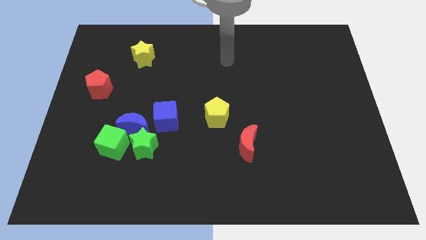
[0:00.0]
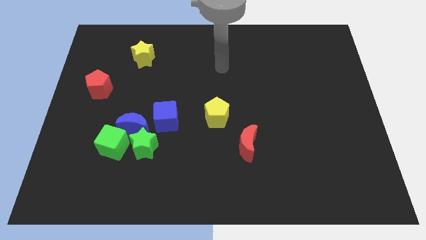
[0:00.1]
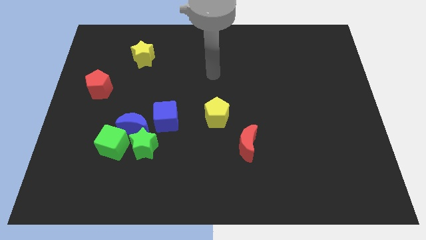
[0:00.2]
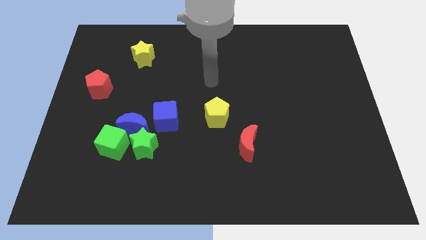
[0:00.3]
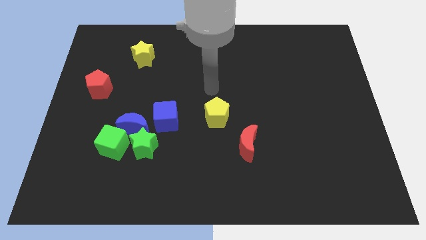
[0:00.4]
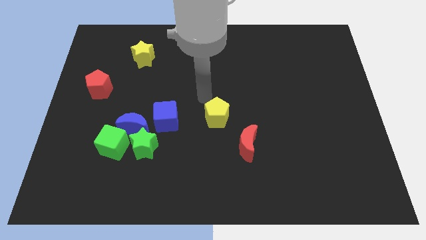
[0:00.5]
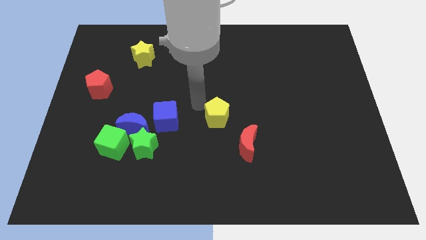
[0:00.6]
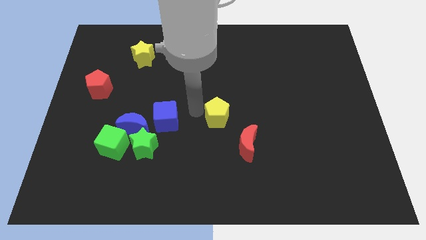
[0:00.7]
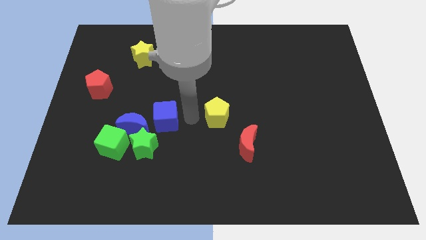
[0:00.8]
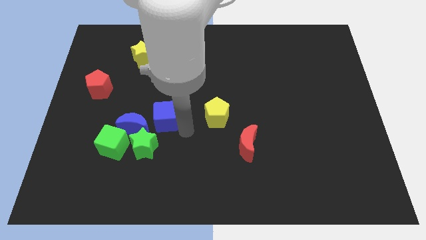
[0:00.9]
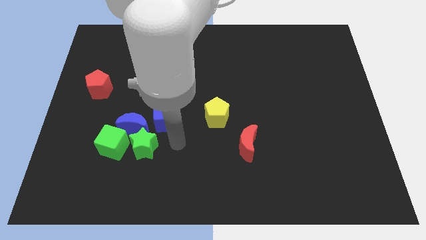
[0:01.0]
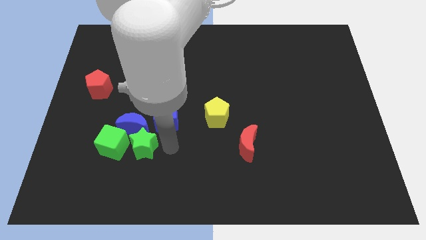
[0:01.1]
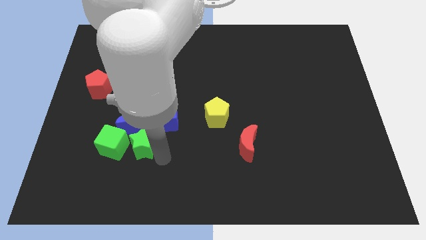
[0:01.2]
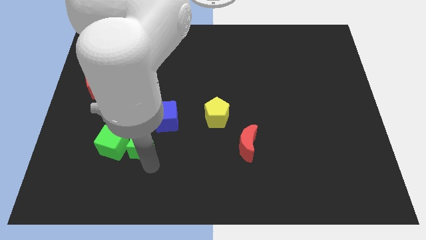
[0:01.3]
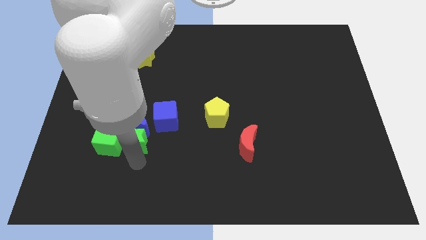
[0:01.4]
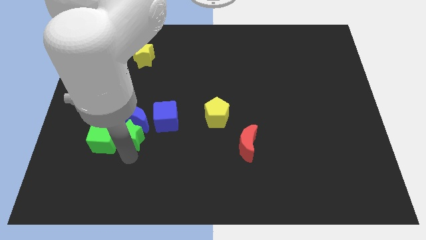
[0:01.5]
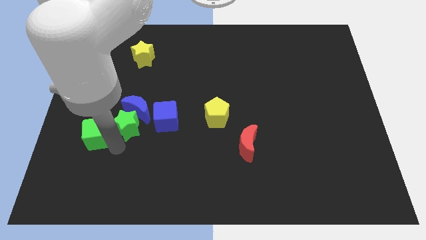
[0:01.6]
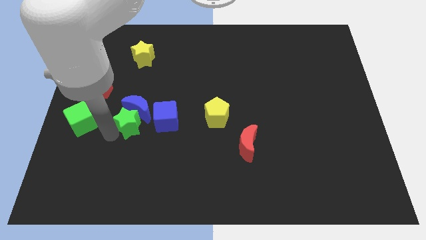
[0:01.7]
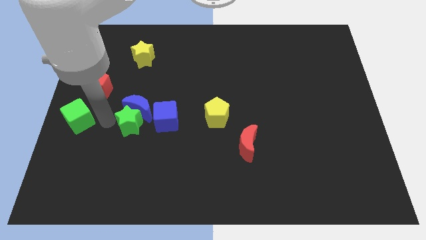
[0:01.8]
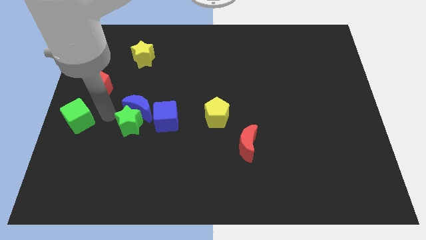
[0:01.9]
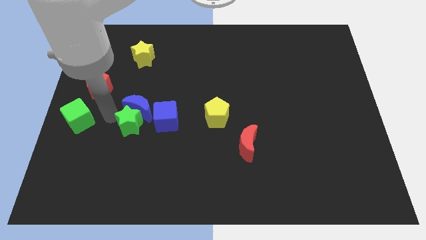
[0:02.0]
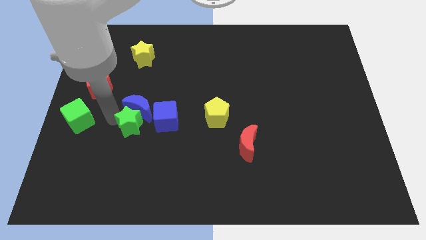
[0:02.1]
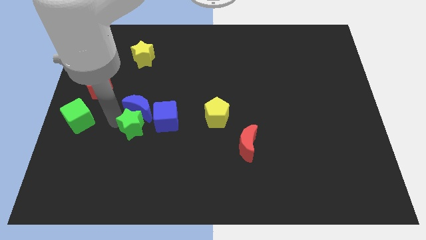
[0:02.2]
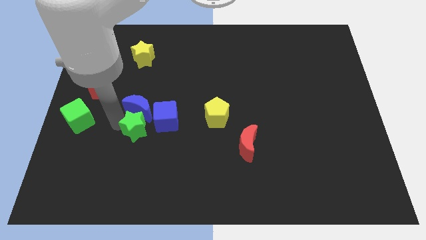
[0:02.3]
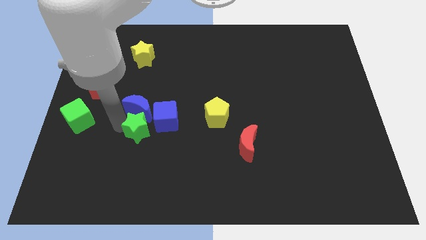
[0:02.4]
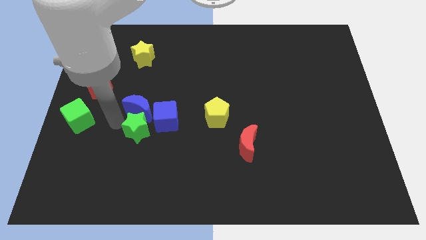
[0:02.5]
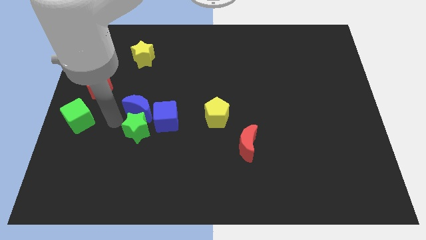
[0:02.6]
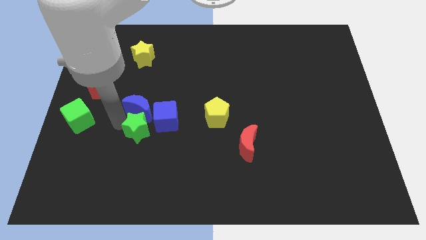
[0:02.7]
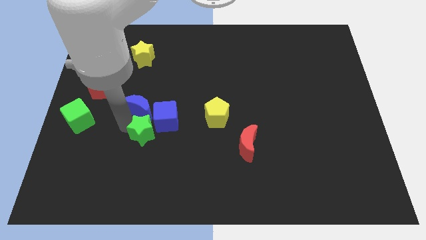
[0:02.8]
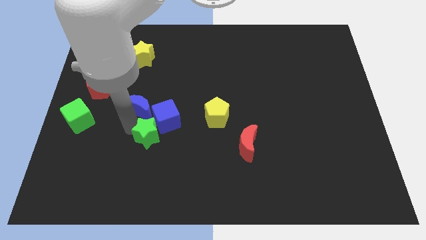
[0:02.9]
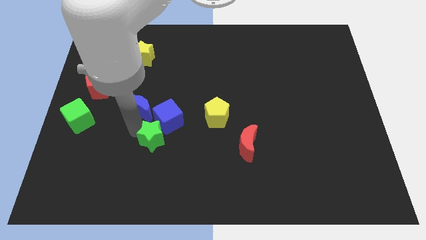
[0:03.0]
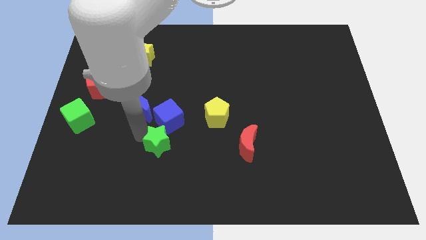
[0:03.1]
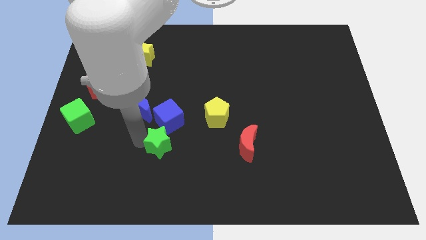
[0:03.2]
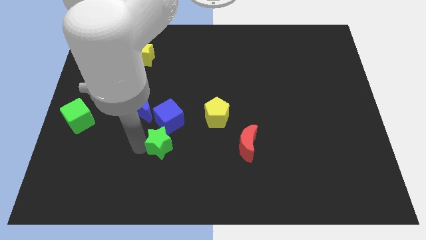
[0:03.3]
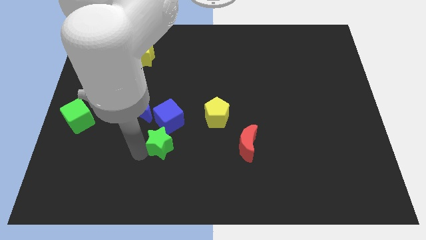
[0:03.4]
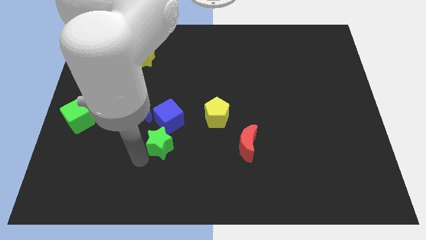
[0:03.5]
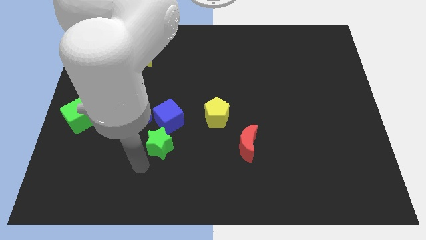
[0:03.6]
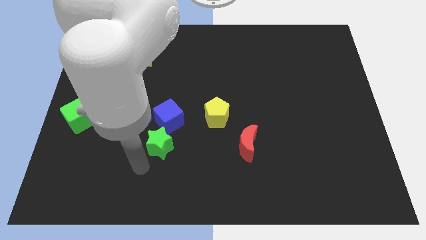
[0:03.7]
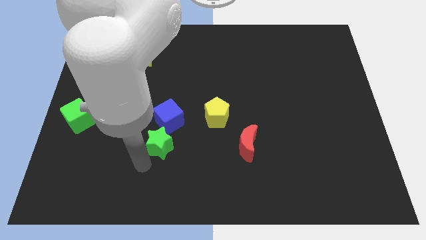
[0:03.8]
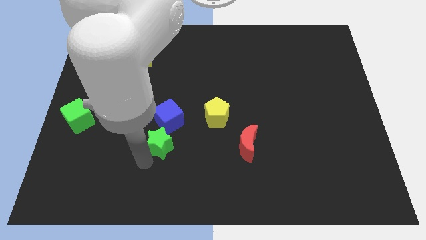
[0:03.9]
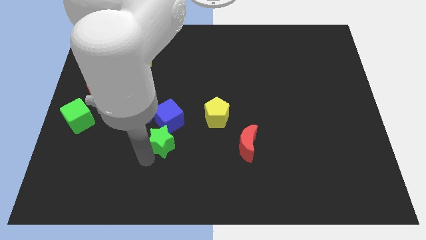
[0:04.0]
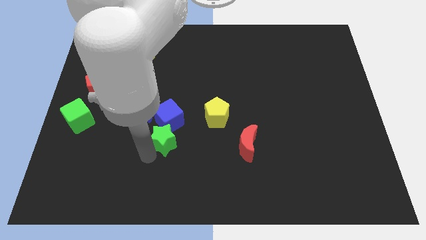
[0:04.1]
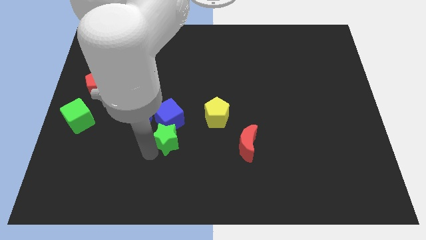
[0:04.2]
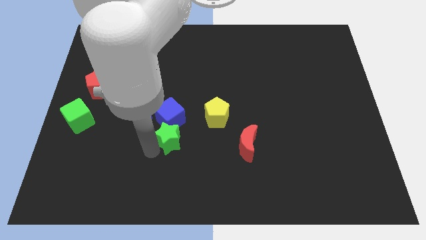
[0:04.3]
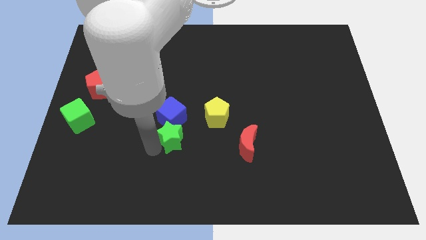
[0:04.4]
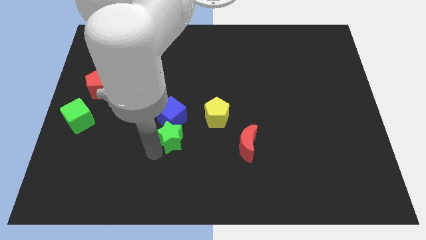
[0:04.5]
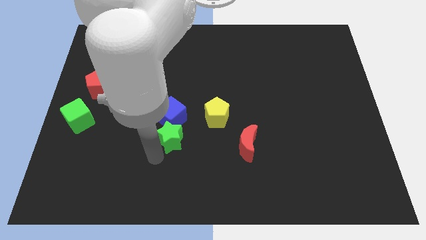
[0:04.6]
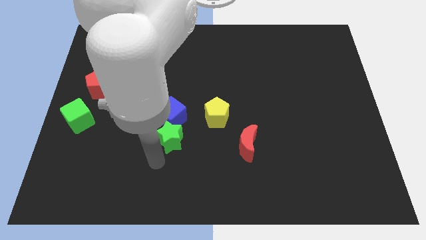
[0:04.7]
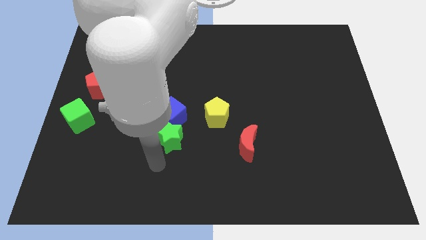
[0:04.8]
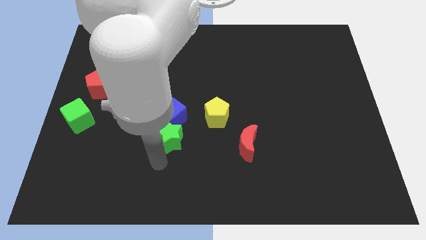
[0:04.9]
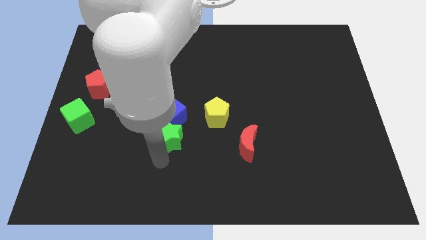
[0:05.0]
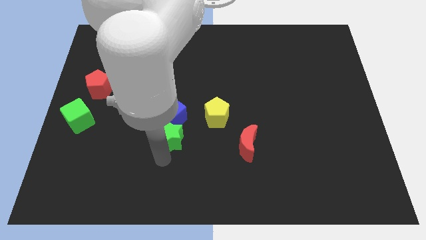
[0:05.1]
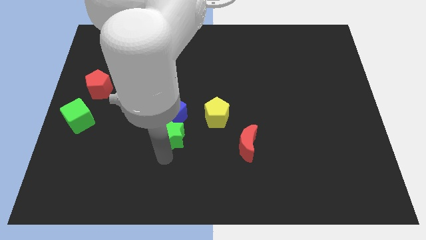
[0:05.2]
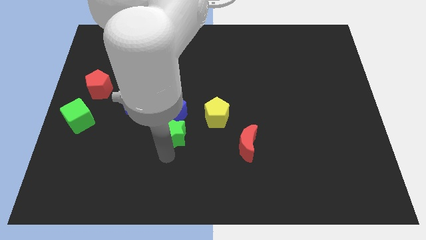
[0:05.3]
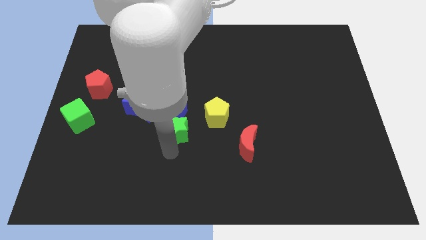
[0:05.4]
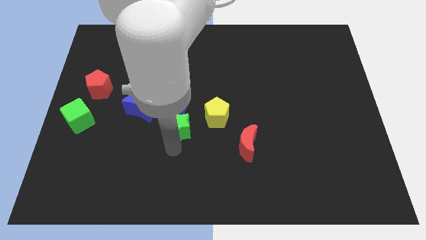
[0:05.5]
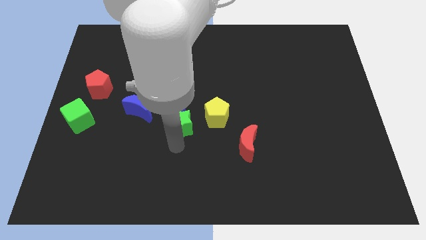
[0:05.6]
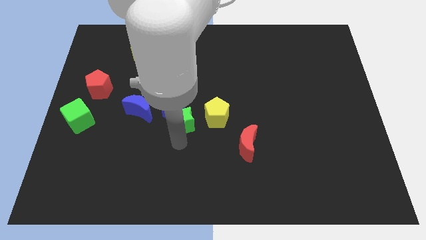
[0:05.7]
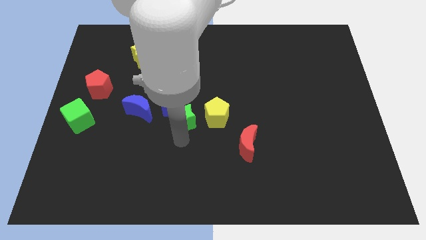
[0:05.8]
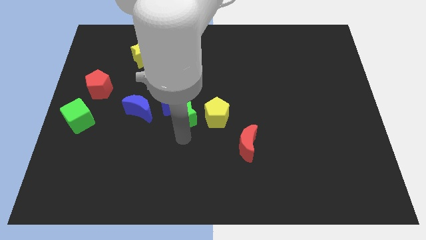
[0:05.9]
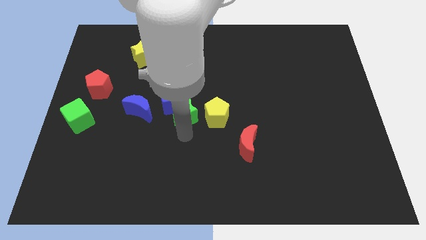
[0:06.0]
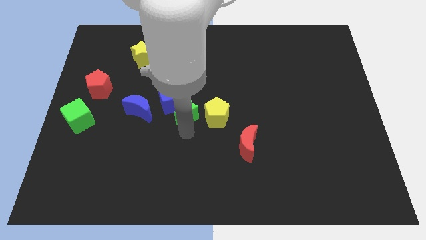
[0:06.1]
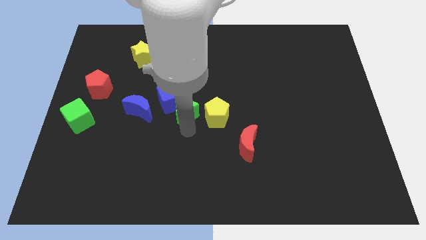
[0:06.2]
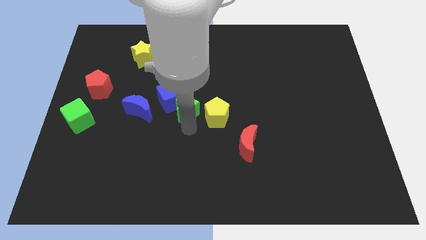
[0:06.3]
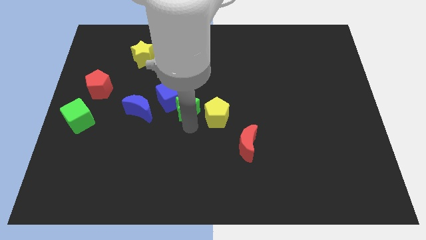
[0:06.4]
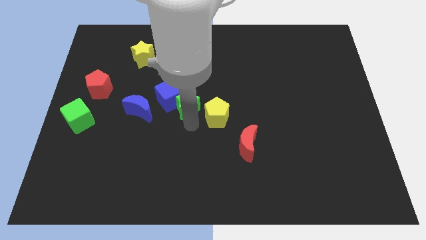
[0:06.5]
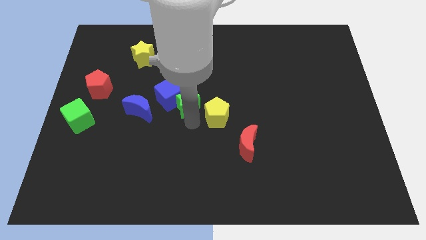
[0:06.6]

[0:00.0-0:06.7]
push the green star up a bit

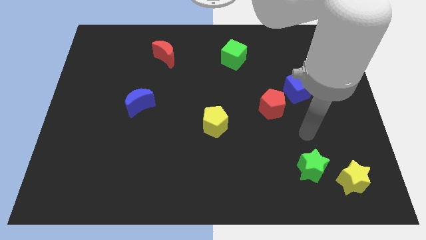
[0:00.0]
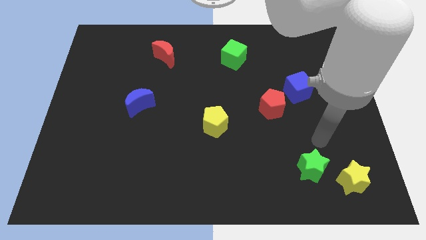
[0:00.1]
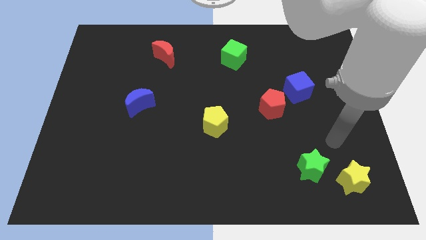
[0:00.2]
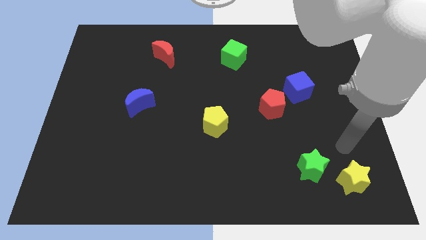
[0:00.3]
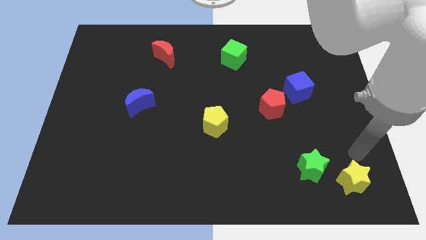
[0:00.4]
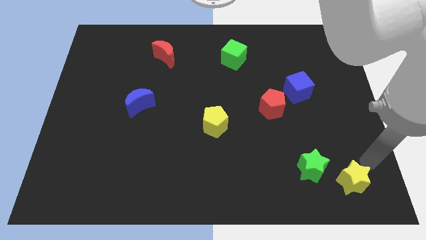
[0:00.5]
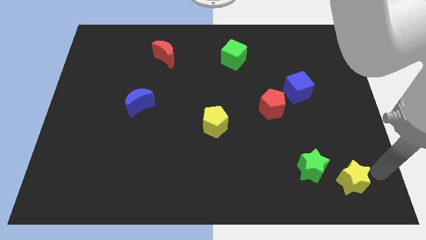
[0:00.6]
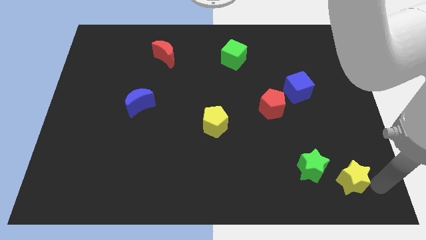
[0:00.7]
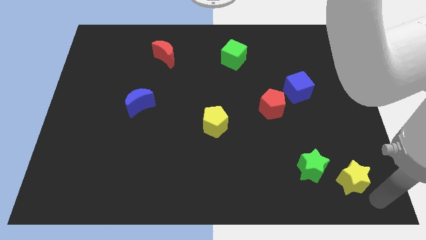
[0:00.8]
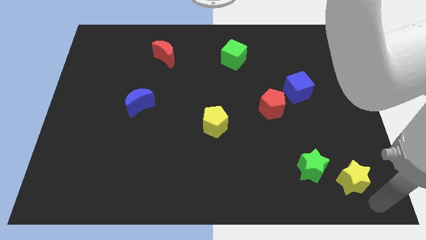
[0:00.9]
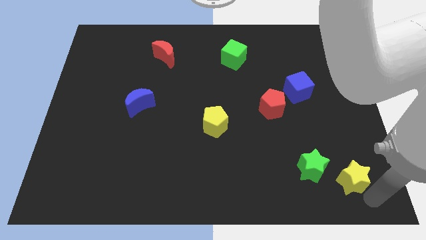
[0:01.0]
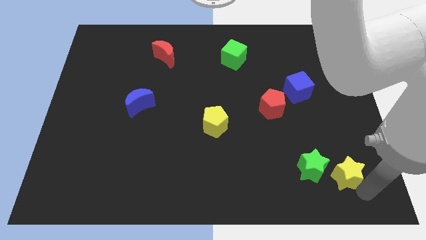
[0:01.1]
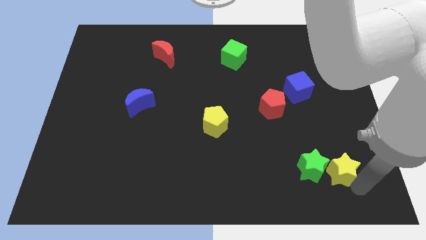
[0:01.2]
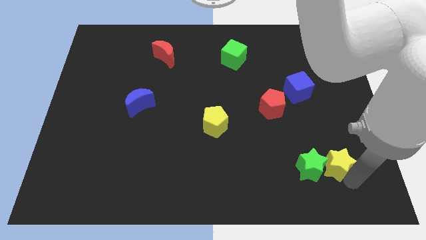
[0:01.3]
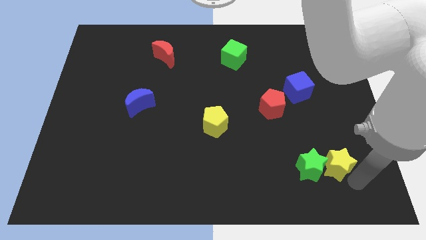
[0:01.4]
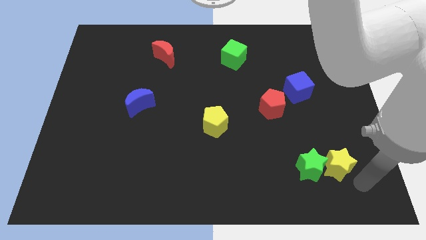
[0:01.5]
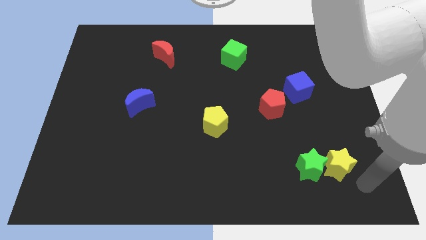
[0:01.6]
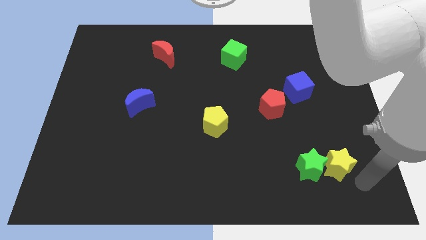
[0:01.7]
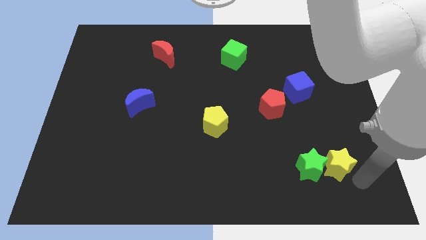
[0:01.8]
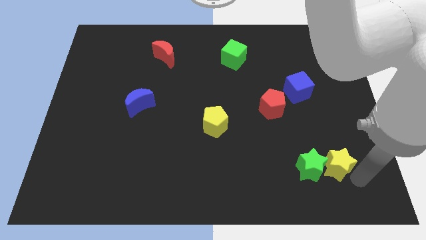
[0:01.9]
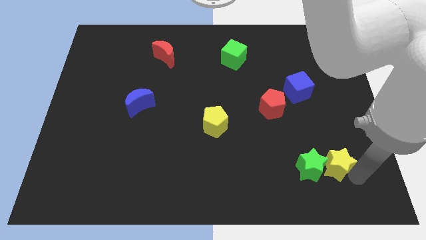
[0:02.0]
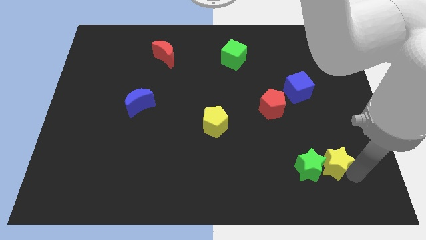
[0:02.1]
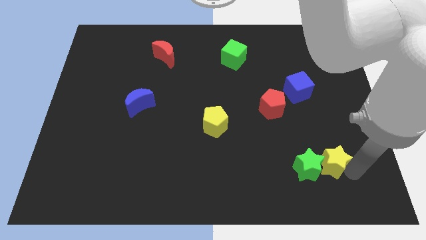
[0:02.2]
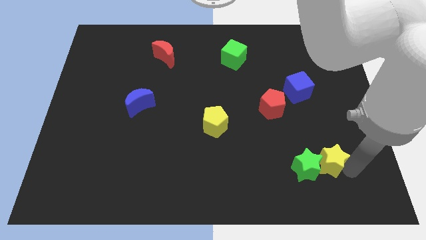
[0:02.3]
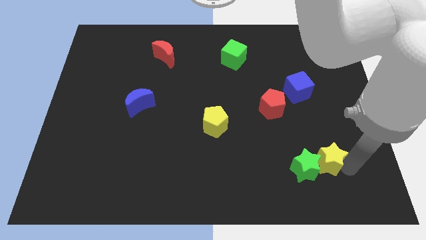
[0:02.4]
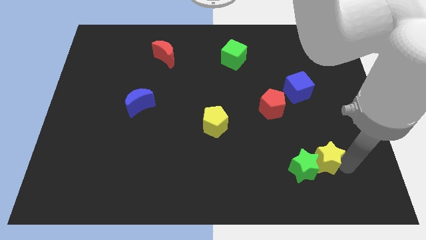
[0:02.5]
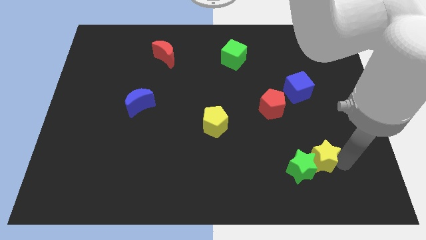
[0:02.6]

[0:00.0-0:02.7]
slightly push the yellow star up and then left
